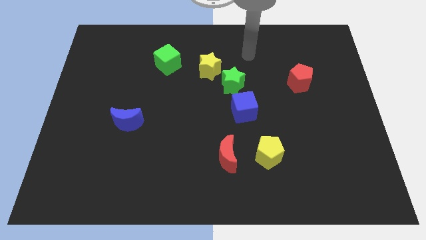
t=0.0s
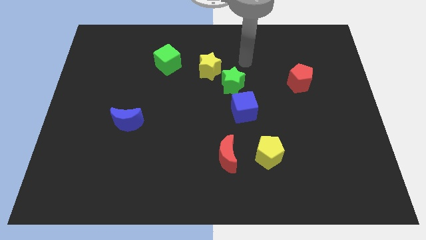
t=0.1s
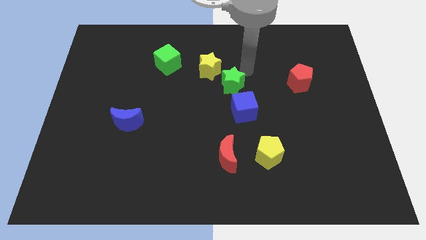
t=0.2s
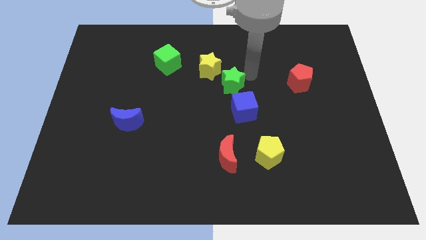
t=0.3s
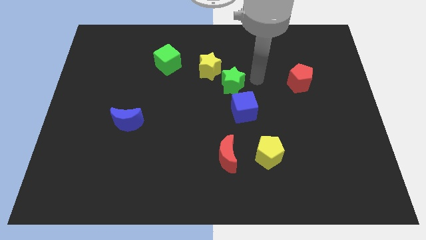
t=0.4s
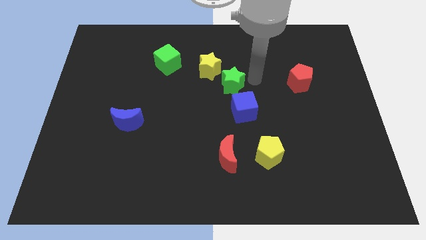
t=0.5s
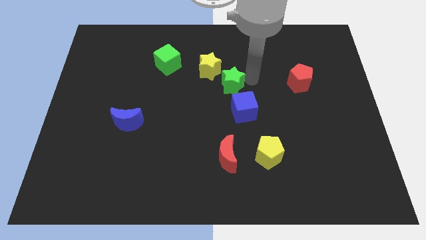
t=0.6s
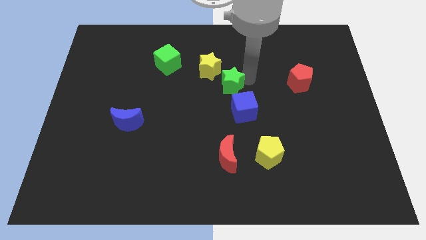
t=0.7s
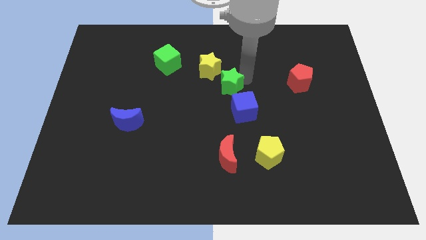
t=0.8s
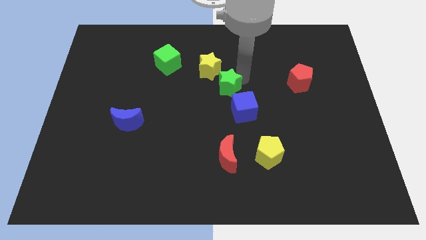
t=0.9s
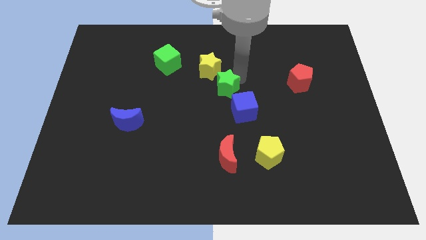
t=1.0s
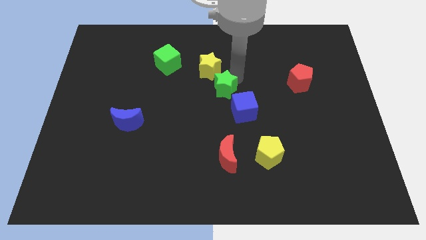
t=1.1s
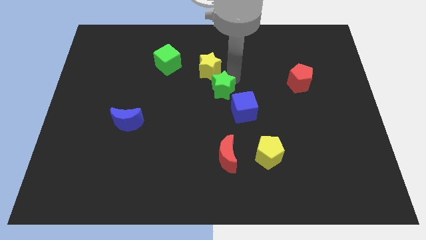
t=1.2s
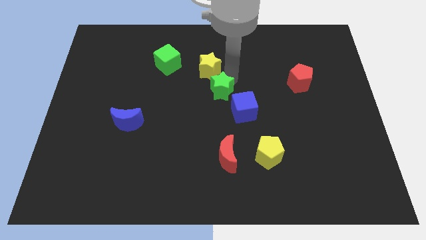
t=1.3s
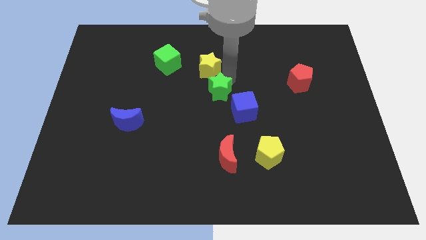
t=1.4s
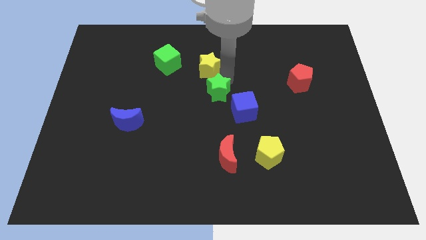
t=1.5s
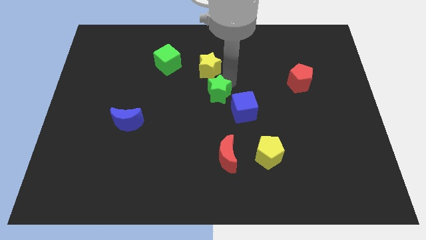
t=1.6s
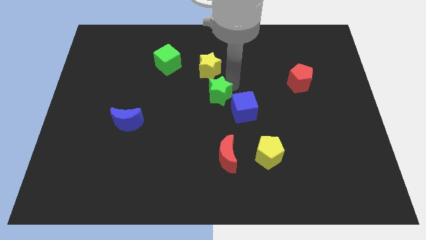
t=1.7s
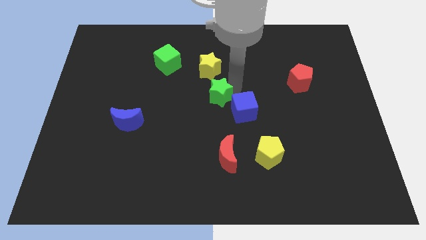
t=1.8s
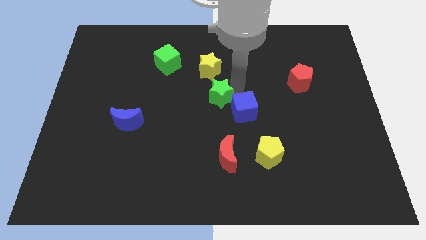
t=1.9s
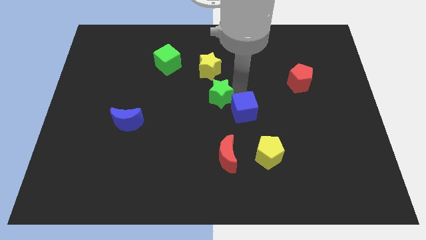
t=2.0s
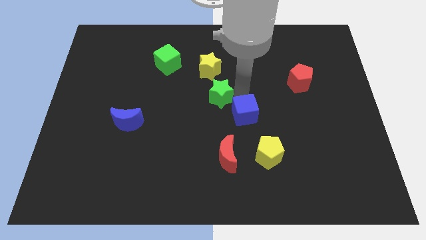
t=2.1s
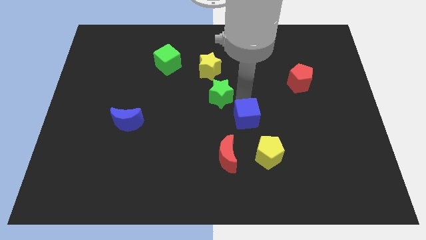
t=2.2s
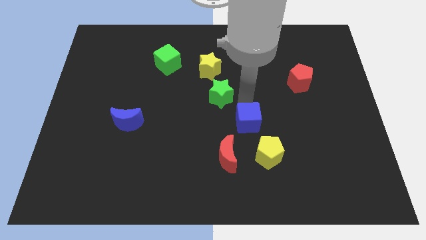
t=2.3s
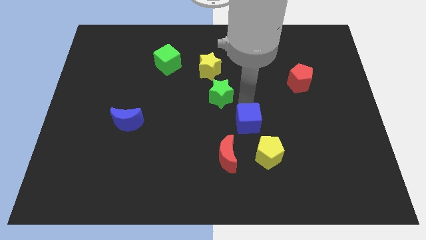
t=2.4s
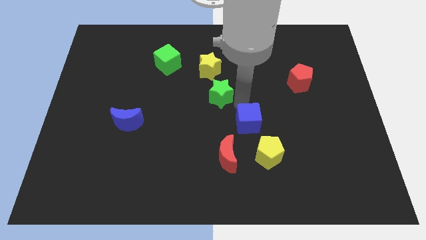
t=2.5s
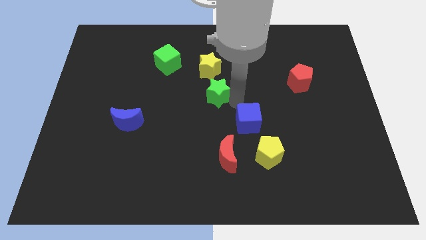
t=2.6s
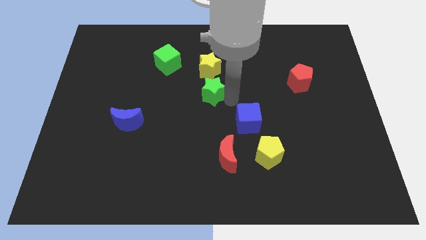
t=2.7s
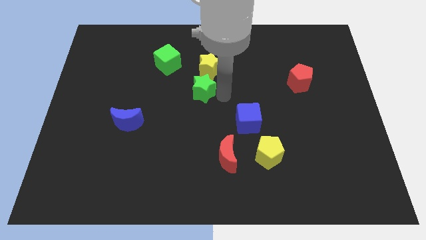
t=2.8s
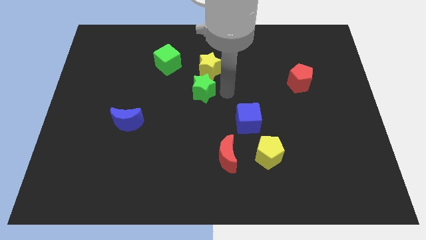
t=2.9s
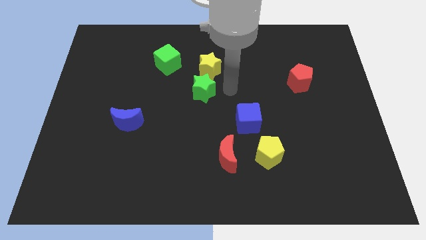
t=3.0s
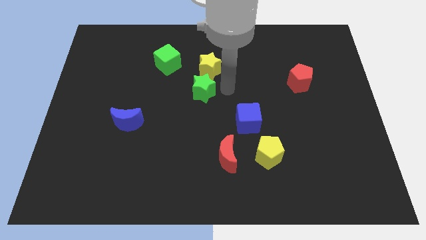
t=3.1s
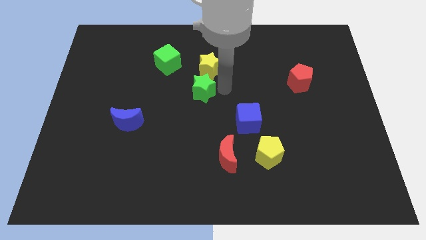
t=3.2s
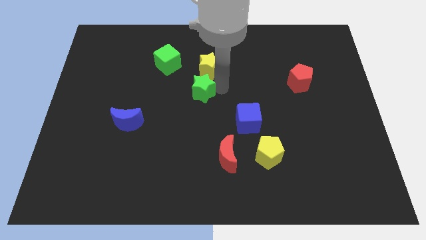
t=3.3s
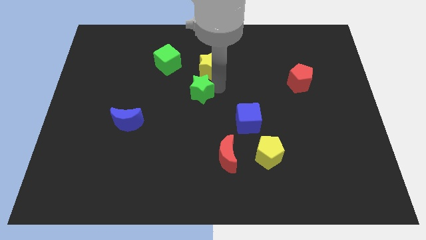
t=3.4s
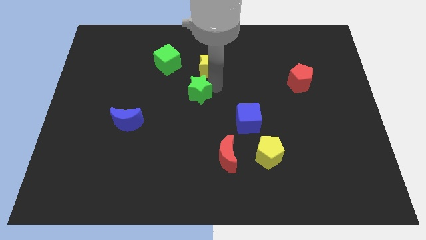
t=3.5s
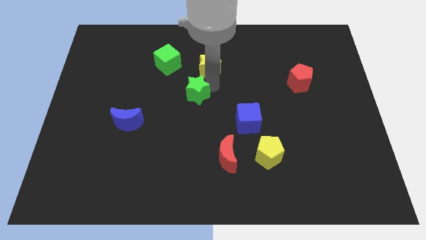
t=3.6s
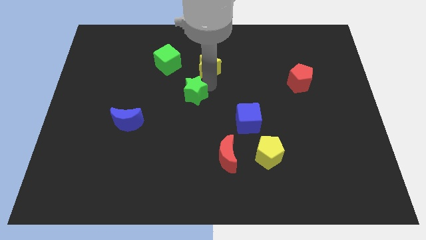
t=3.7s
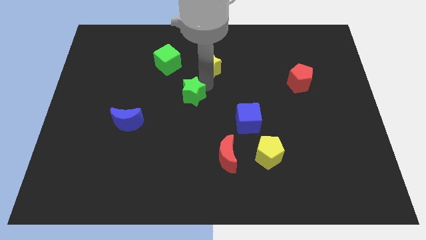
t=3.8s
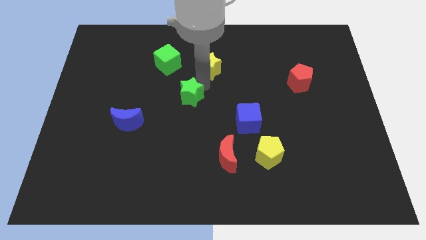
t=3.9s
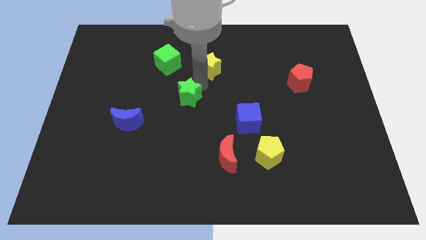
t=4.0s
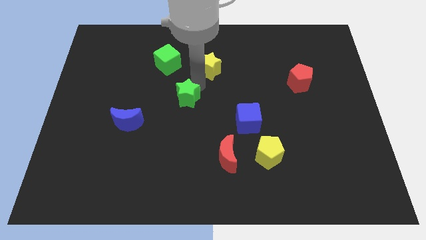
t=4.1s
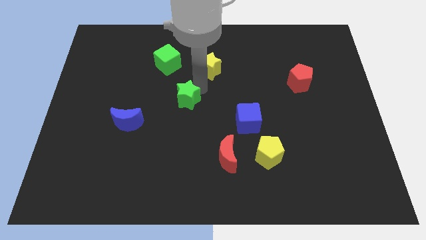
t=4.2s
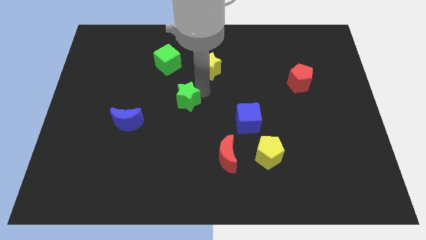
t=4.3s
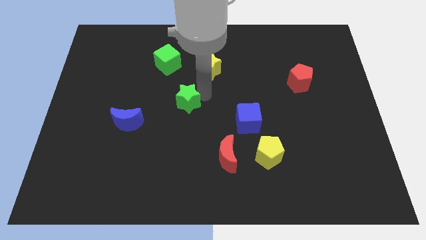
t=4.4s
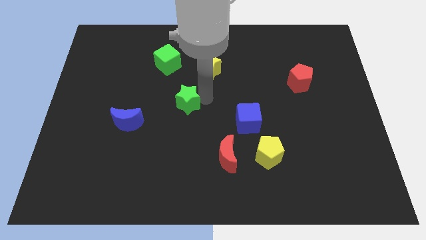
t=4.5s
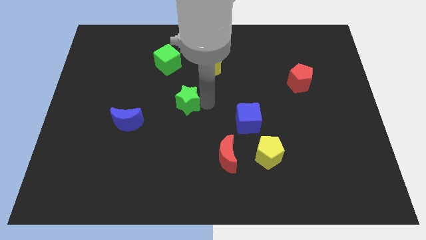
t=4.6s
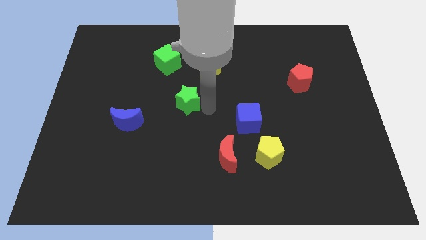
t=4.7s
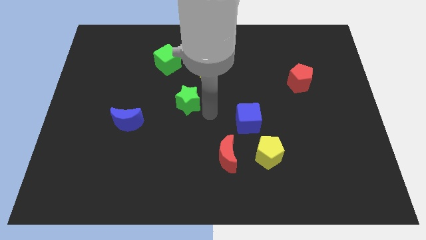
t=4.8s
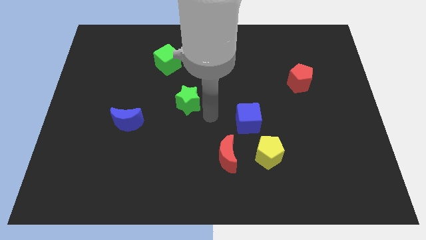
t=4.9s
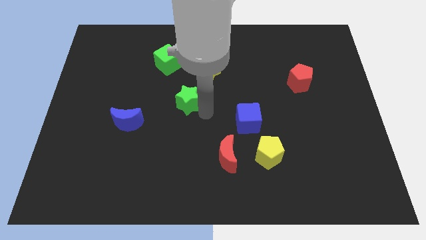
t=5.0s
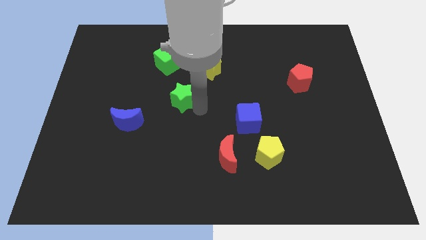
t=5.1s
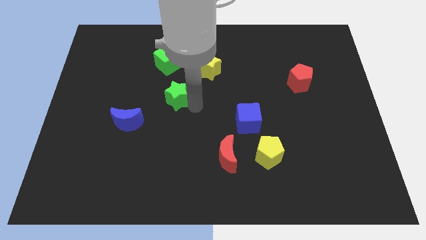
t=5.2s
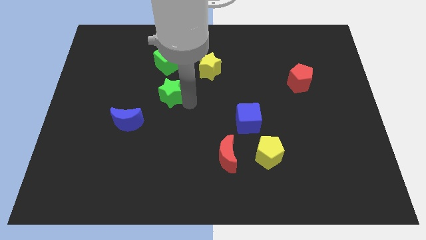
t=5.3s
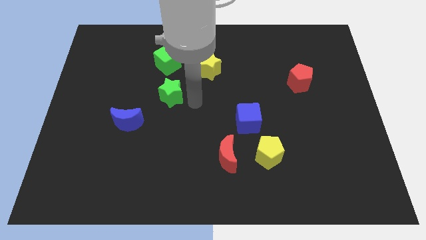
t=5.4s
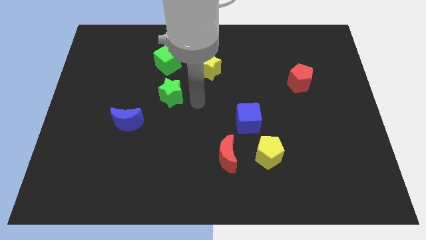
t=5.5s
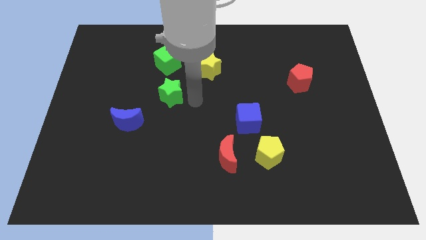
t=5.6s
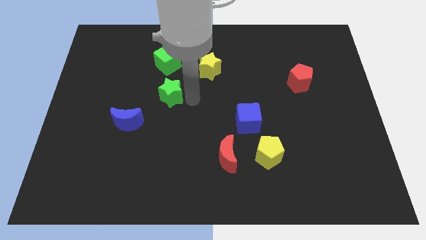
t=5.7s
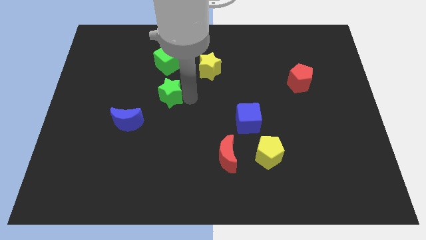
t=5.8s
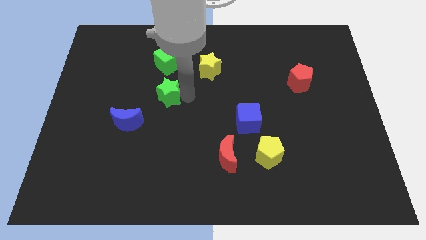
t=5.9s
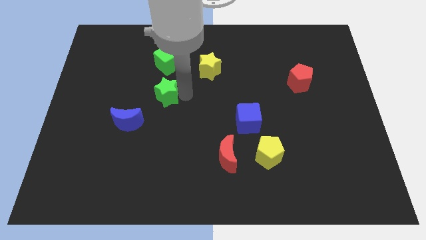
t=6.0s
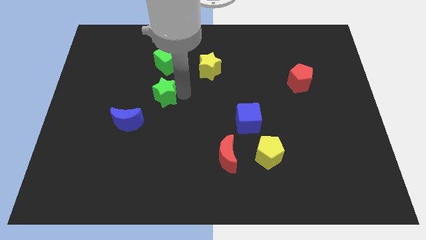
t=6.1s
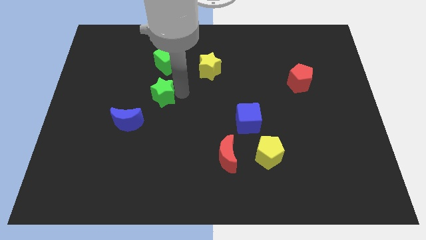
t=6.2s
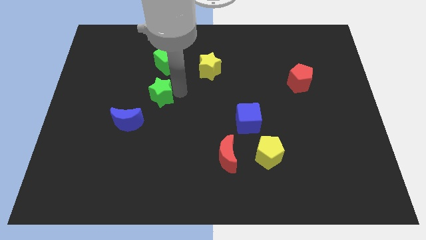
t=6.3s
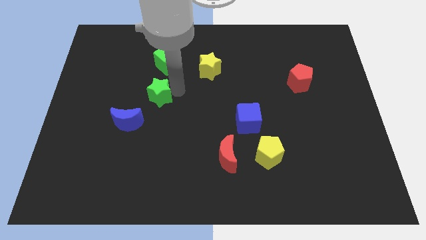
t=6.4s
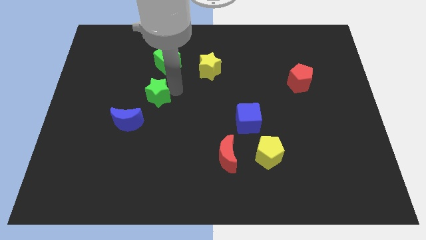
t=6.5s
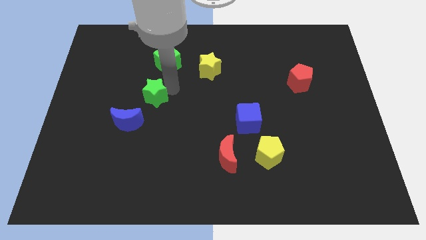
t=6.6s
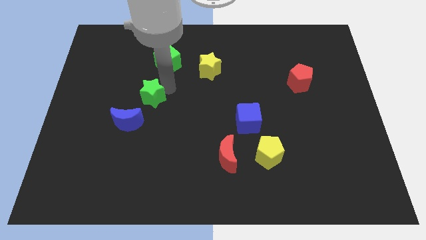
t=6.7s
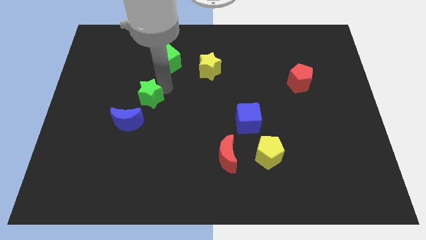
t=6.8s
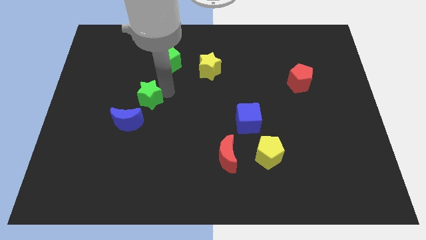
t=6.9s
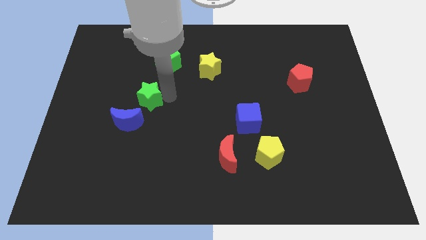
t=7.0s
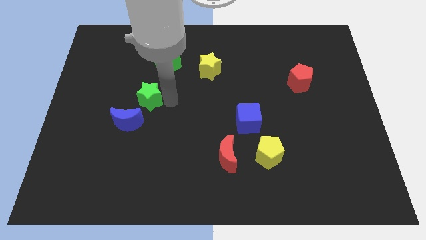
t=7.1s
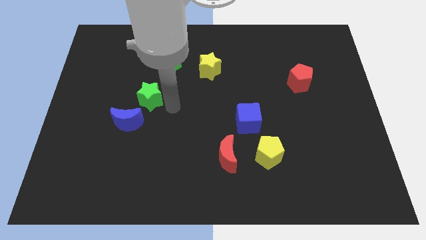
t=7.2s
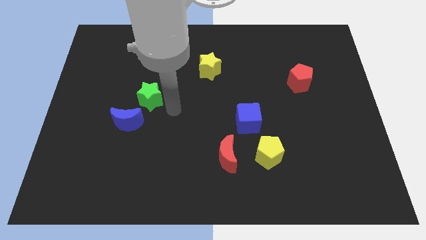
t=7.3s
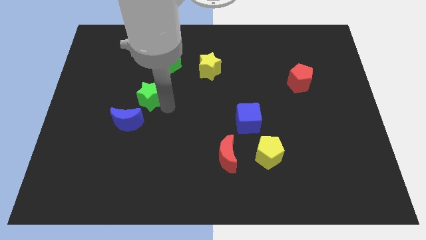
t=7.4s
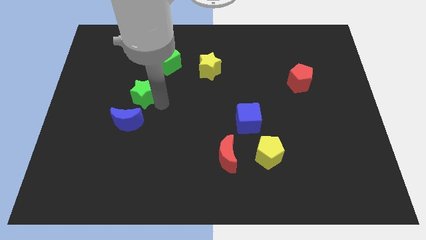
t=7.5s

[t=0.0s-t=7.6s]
push the green star left

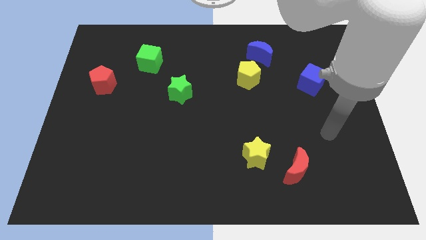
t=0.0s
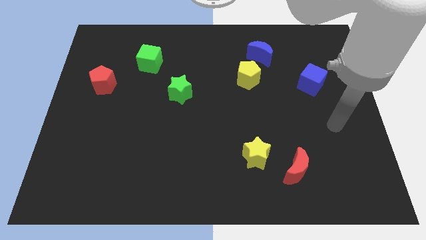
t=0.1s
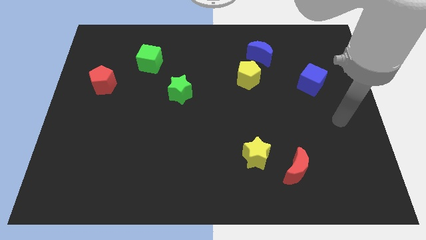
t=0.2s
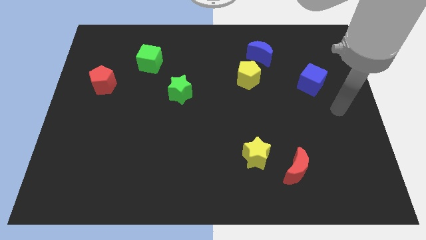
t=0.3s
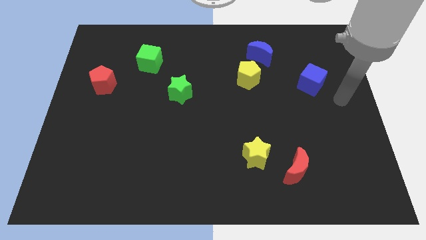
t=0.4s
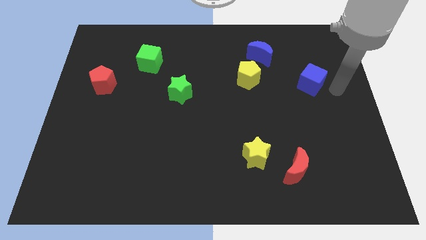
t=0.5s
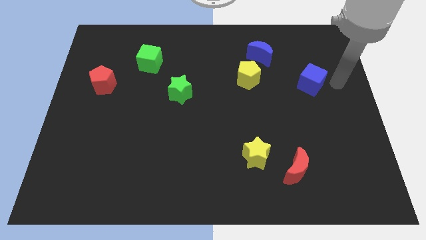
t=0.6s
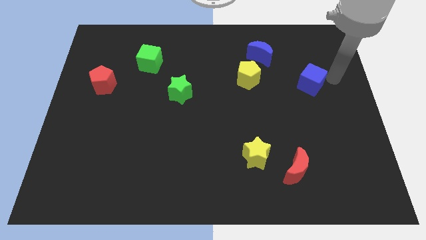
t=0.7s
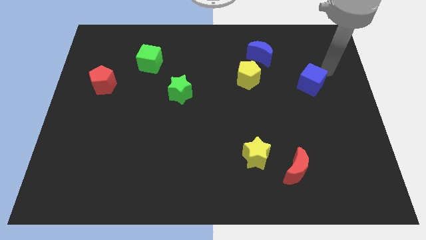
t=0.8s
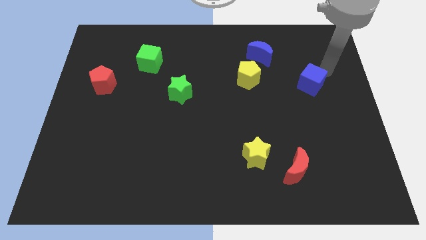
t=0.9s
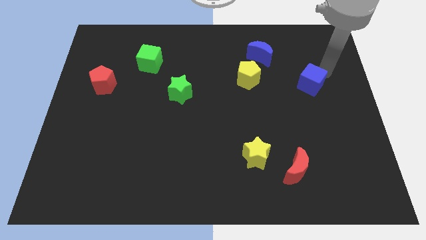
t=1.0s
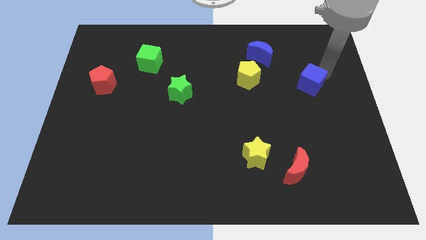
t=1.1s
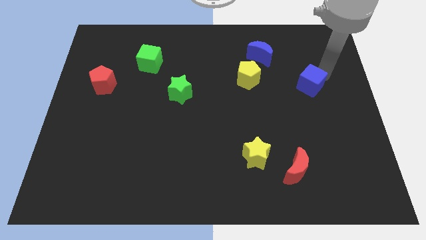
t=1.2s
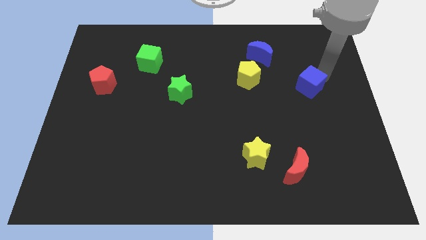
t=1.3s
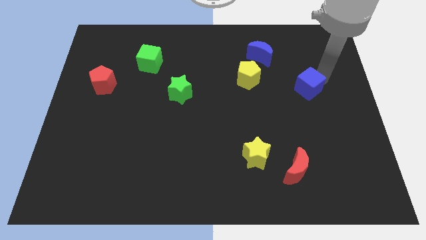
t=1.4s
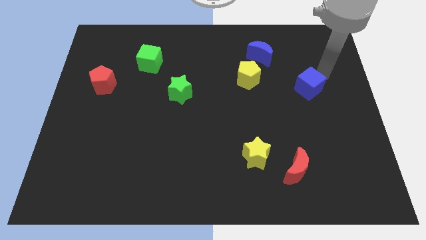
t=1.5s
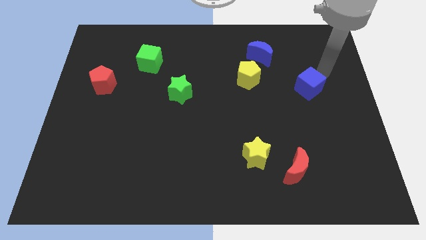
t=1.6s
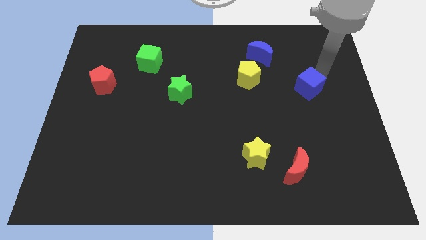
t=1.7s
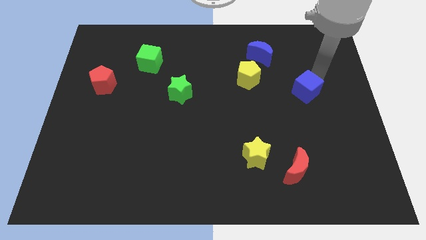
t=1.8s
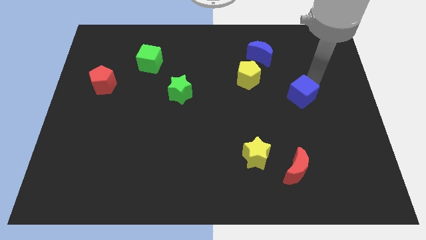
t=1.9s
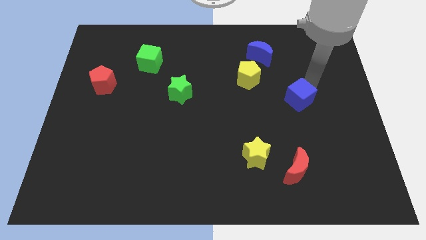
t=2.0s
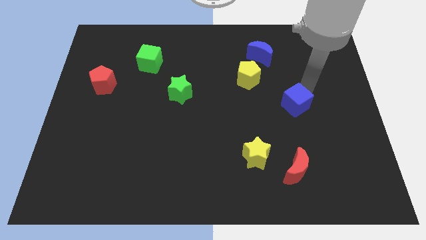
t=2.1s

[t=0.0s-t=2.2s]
move the blue cube diagonally downwards and to the left somewhat
